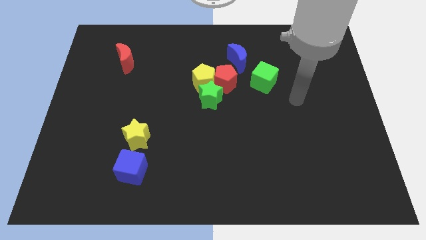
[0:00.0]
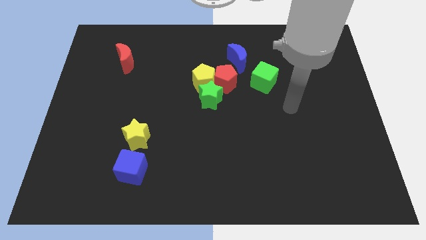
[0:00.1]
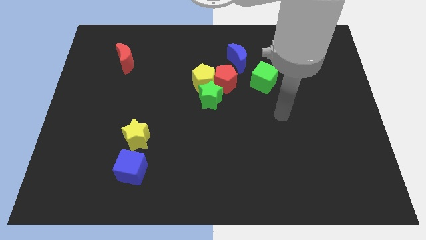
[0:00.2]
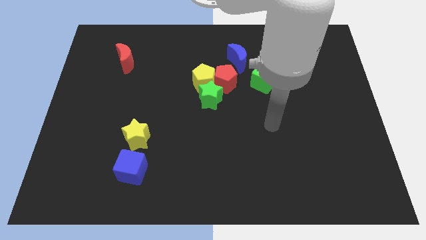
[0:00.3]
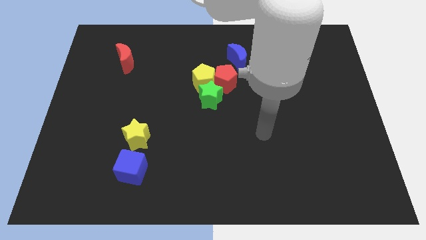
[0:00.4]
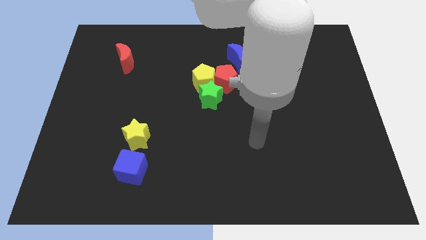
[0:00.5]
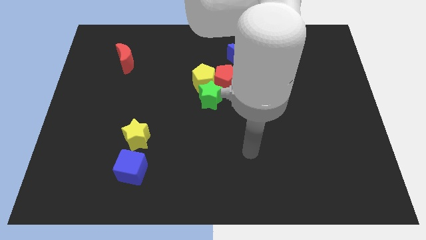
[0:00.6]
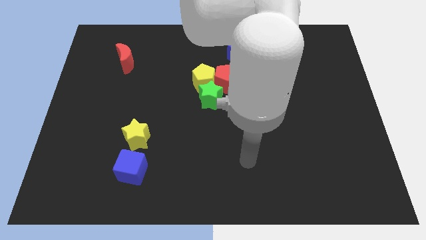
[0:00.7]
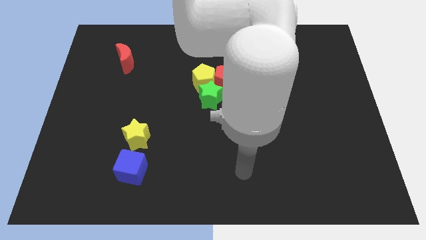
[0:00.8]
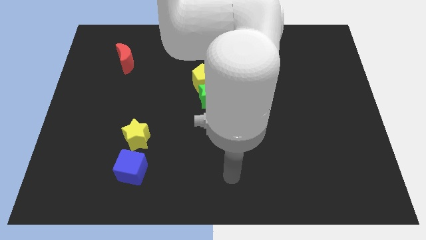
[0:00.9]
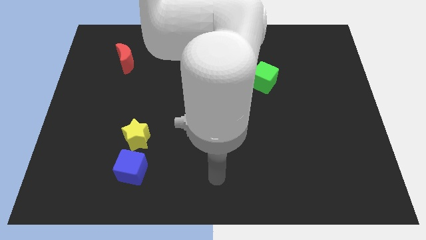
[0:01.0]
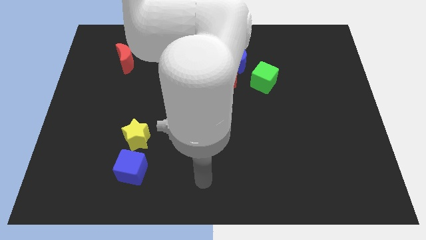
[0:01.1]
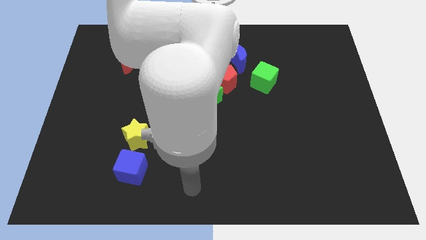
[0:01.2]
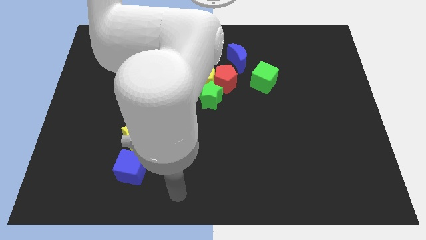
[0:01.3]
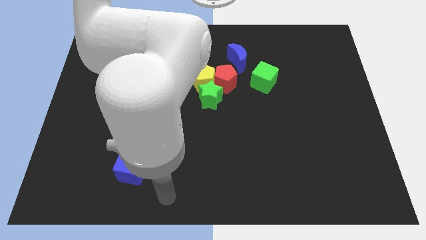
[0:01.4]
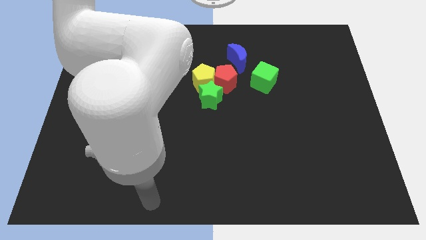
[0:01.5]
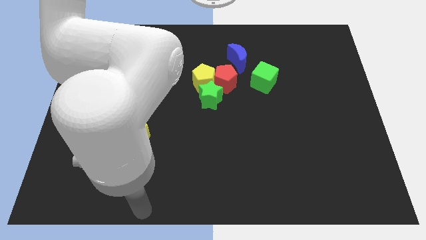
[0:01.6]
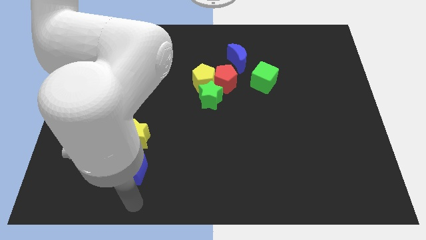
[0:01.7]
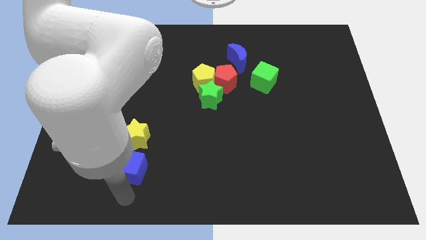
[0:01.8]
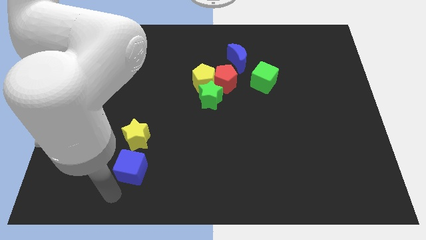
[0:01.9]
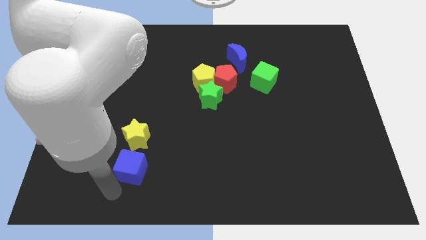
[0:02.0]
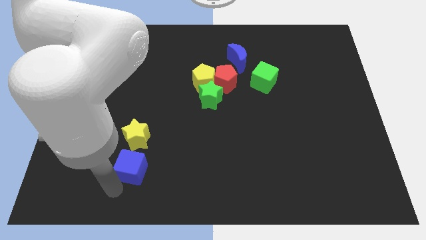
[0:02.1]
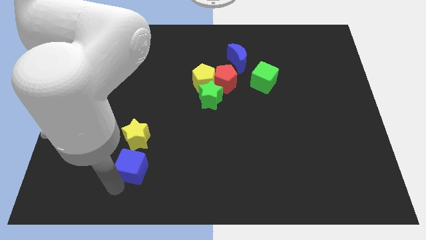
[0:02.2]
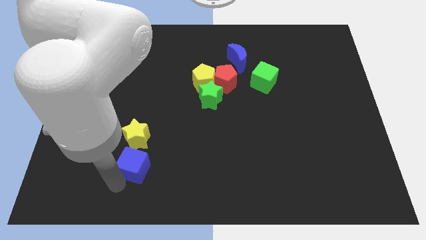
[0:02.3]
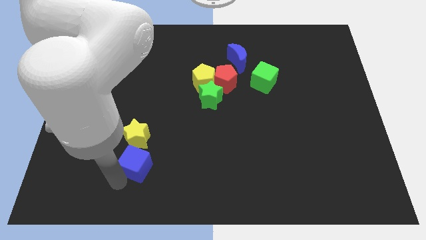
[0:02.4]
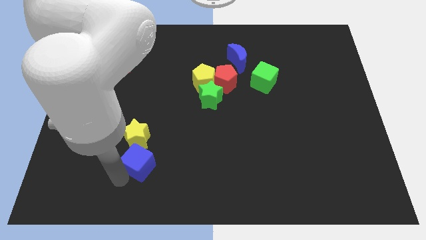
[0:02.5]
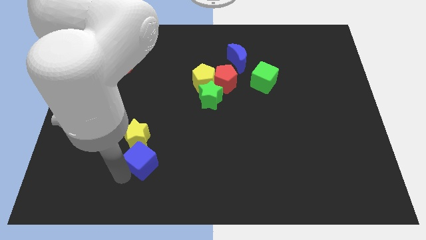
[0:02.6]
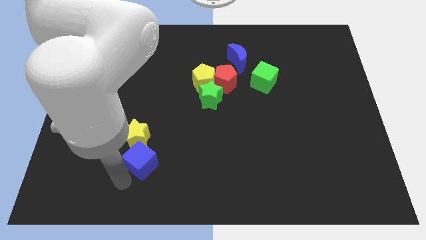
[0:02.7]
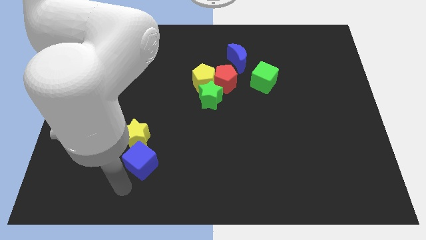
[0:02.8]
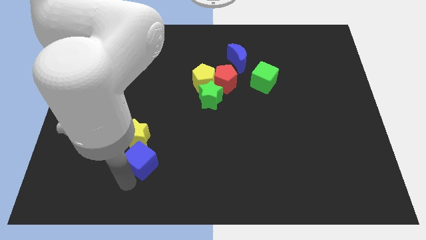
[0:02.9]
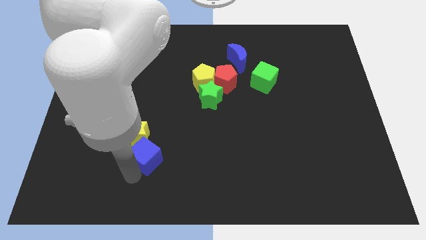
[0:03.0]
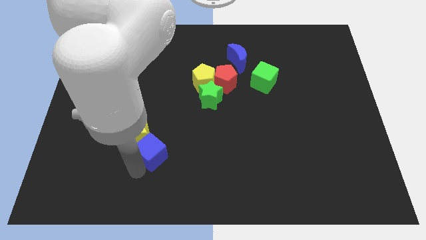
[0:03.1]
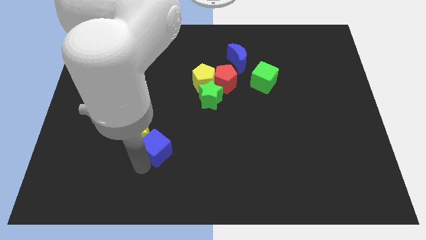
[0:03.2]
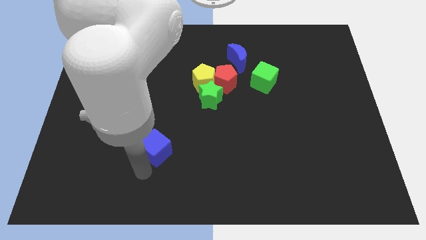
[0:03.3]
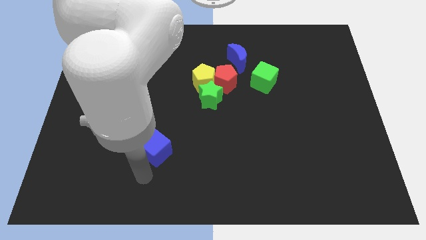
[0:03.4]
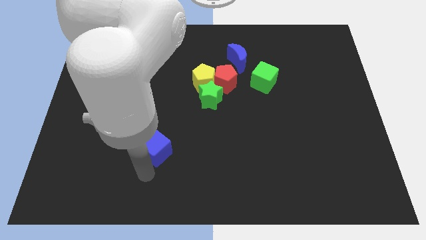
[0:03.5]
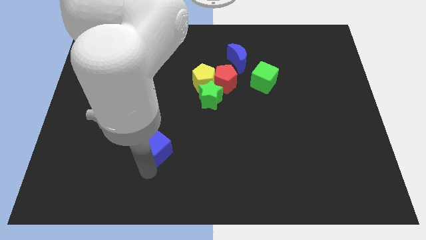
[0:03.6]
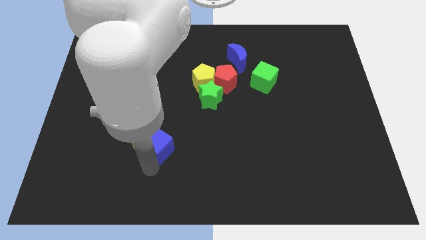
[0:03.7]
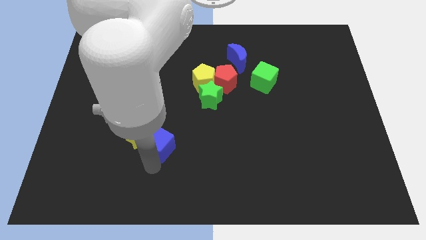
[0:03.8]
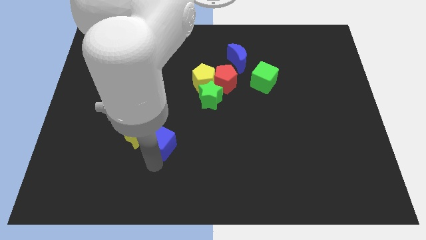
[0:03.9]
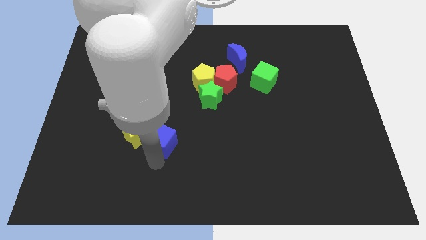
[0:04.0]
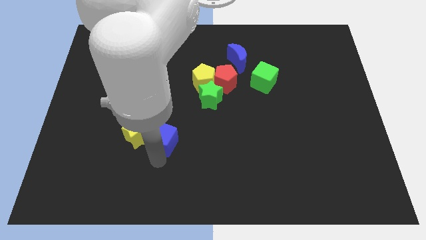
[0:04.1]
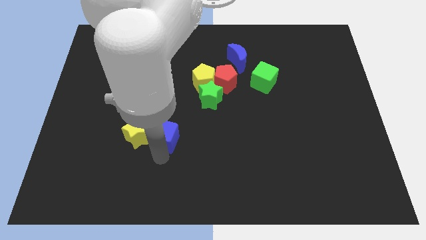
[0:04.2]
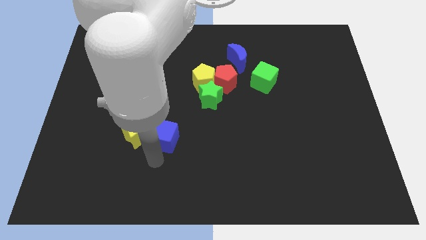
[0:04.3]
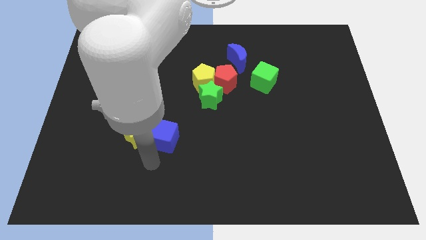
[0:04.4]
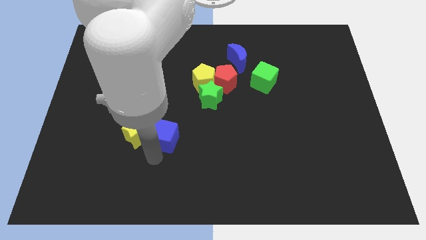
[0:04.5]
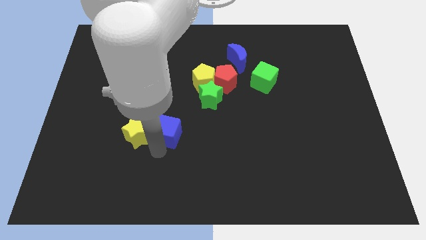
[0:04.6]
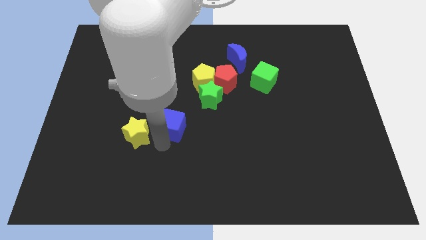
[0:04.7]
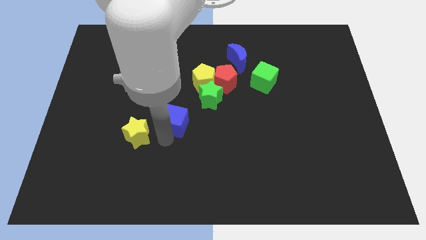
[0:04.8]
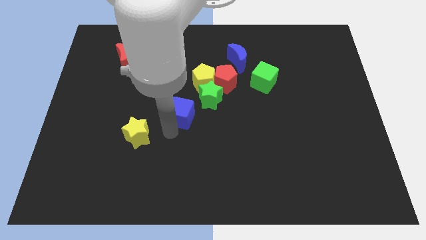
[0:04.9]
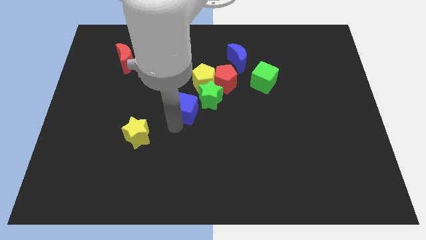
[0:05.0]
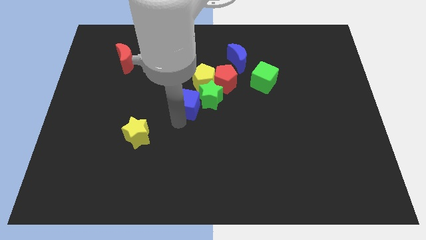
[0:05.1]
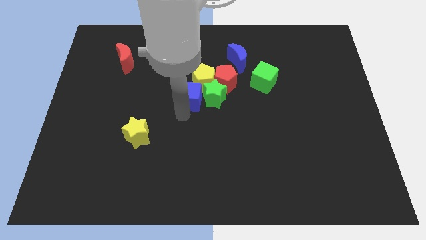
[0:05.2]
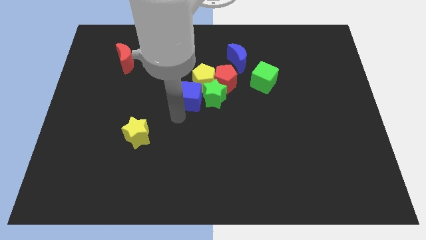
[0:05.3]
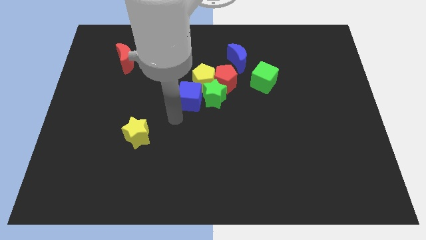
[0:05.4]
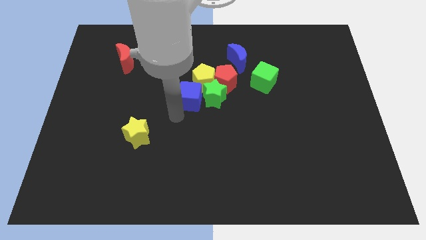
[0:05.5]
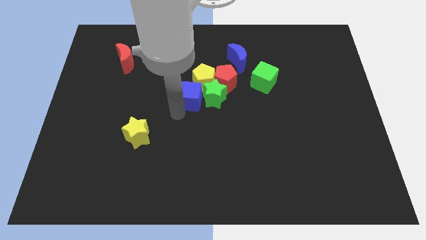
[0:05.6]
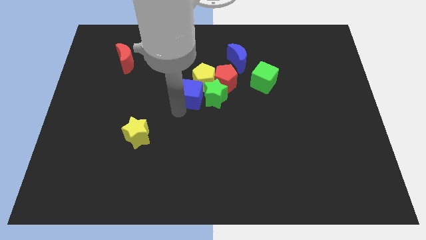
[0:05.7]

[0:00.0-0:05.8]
put the blue cube towards the yellow pentagon

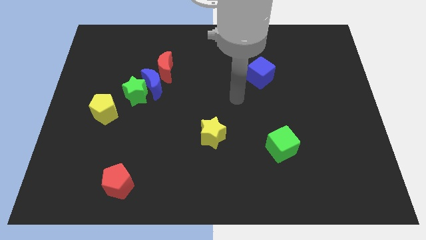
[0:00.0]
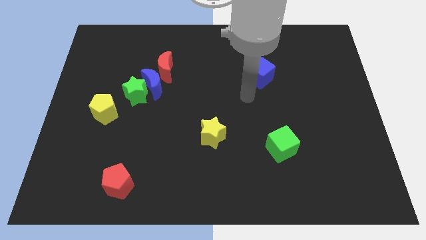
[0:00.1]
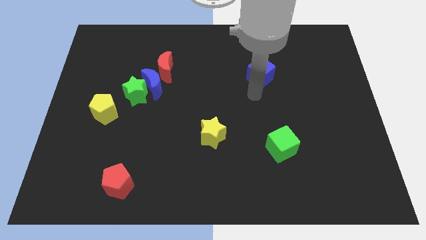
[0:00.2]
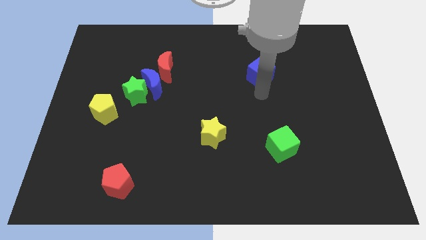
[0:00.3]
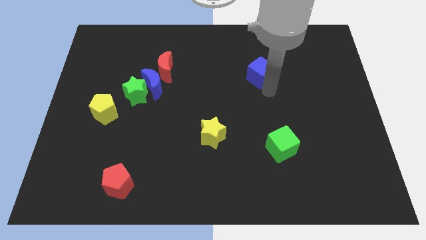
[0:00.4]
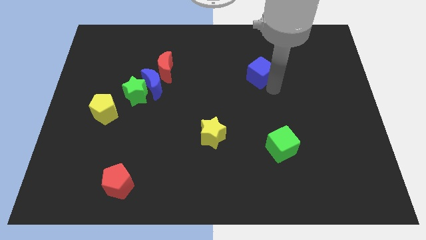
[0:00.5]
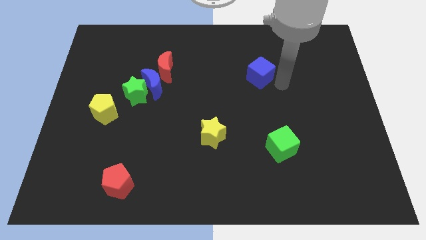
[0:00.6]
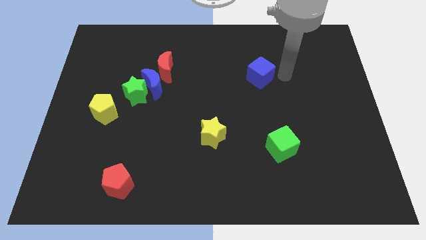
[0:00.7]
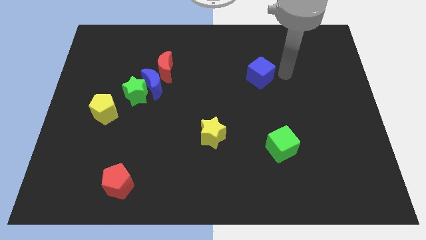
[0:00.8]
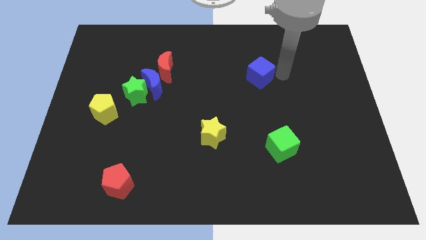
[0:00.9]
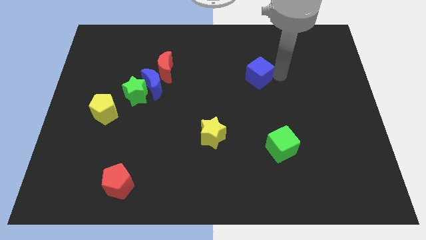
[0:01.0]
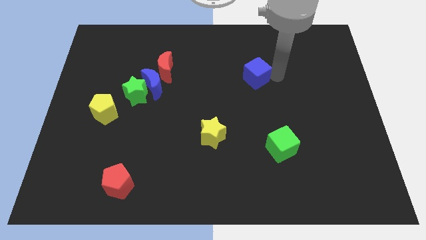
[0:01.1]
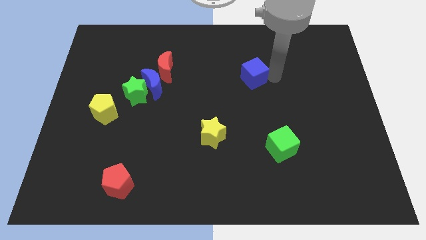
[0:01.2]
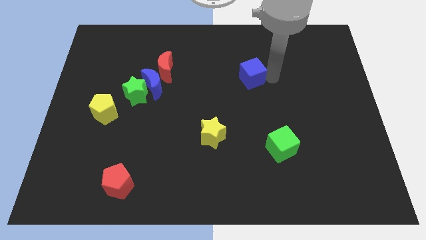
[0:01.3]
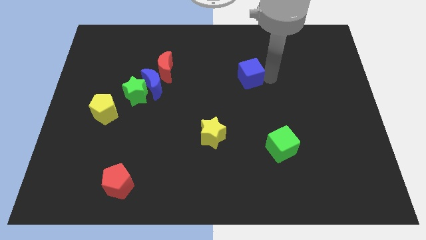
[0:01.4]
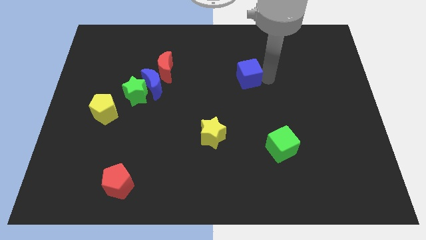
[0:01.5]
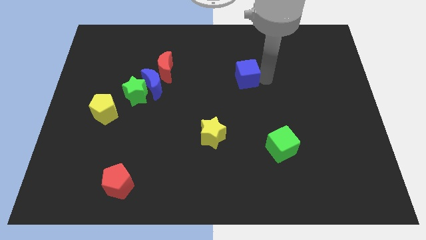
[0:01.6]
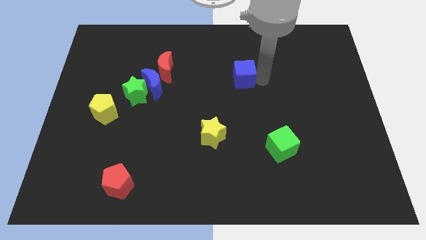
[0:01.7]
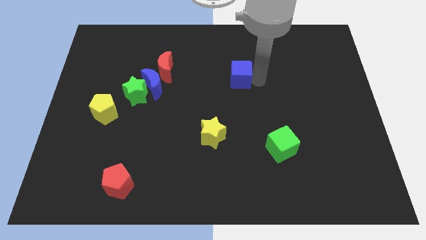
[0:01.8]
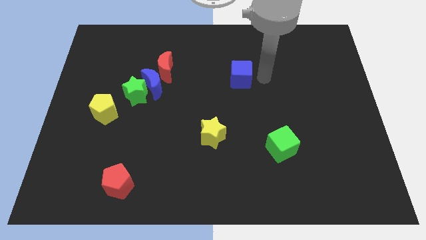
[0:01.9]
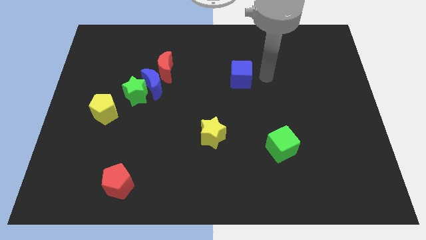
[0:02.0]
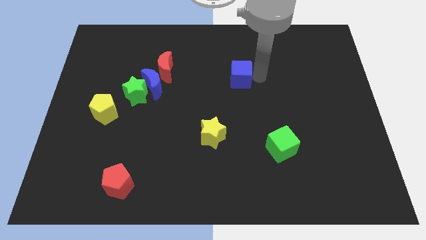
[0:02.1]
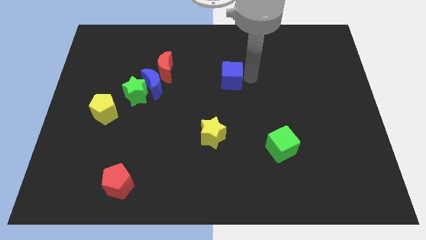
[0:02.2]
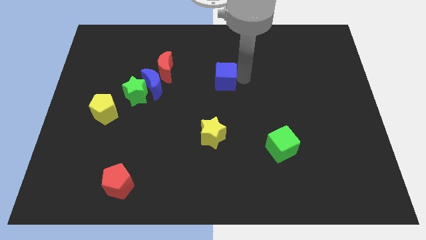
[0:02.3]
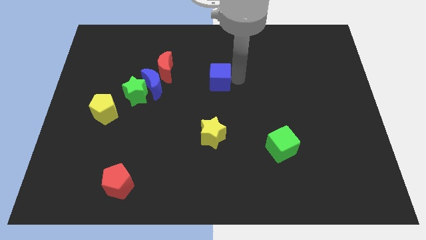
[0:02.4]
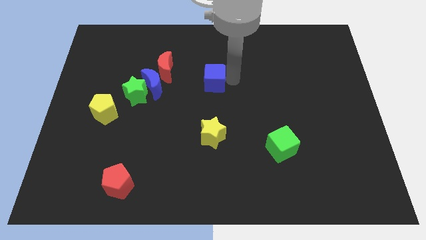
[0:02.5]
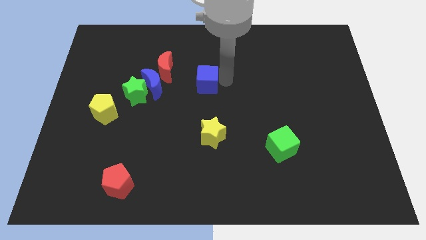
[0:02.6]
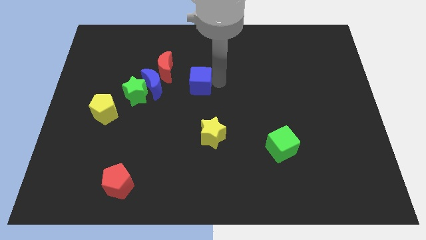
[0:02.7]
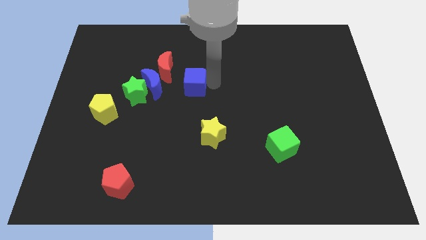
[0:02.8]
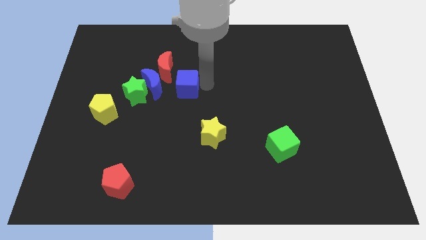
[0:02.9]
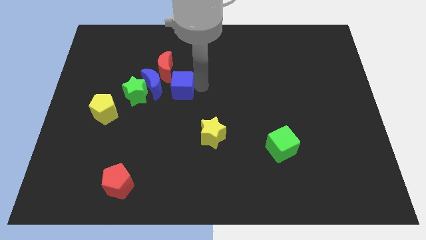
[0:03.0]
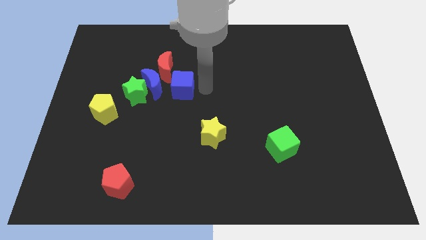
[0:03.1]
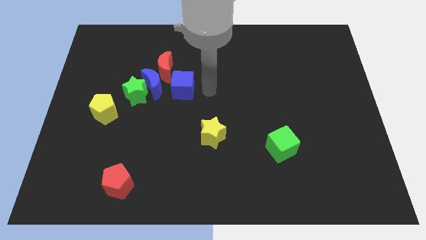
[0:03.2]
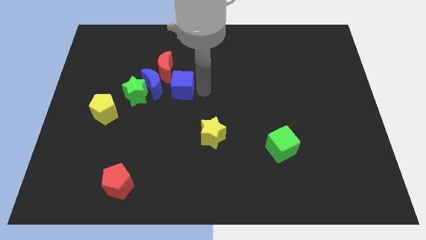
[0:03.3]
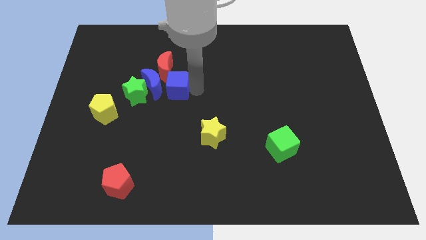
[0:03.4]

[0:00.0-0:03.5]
put the blue cube close to the blue moon
